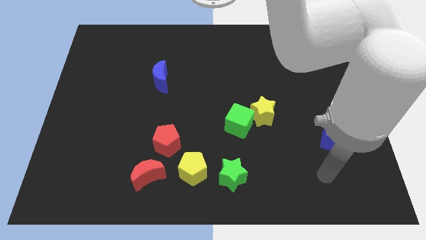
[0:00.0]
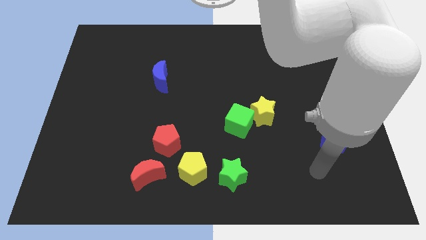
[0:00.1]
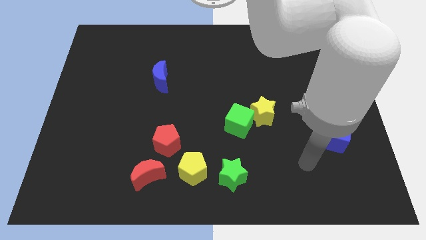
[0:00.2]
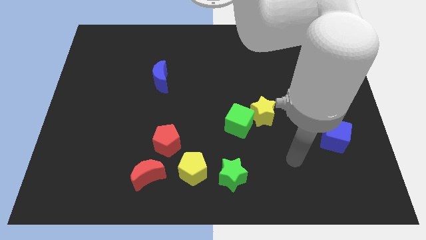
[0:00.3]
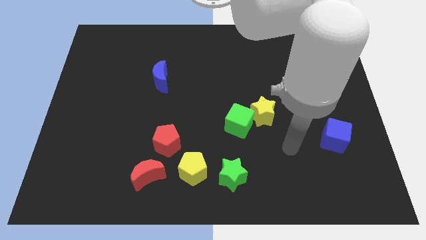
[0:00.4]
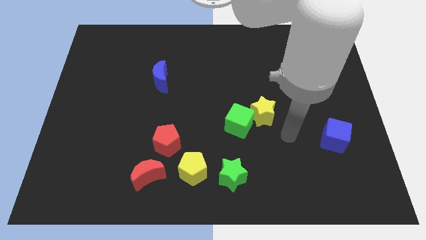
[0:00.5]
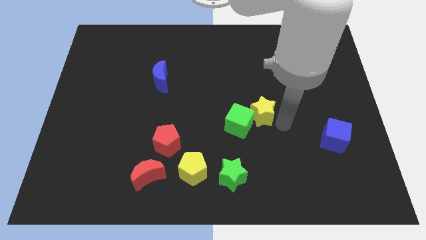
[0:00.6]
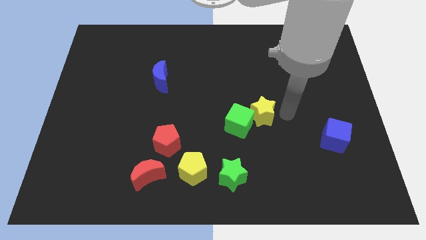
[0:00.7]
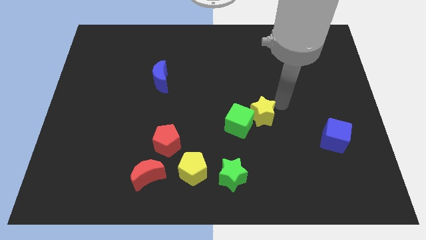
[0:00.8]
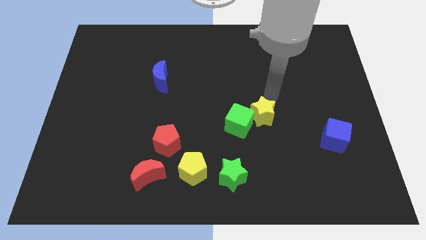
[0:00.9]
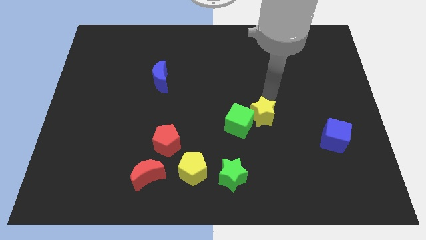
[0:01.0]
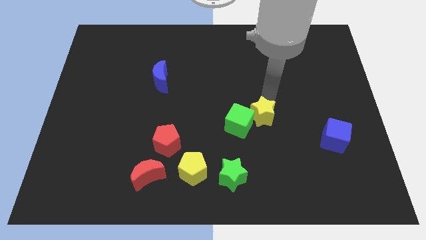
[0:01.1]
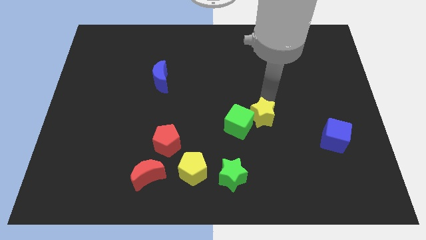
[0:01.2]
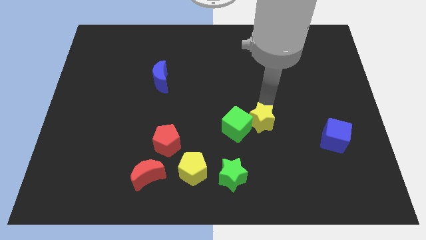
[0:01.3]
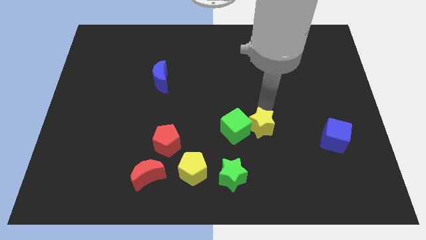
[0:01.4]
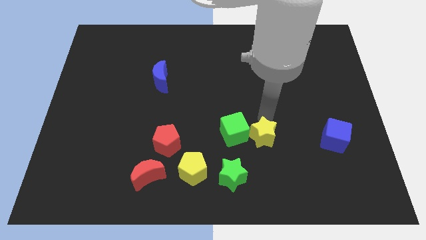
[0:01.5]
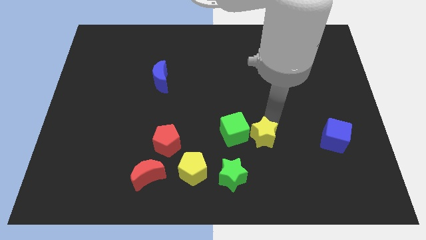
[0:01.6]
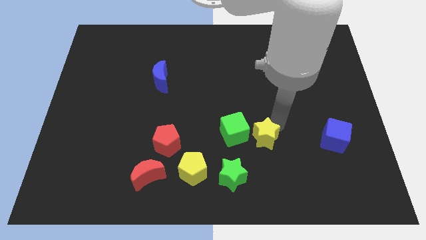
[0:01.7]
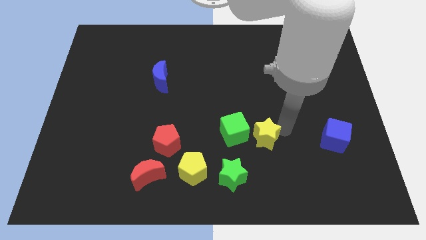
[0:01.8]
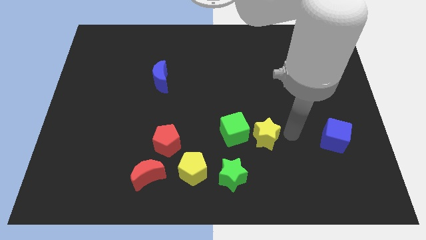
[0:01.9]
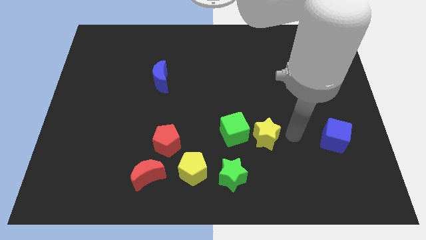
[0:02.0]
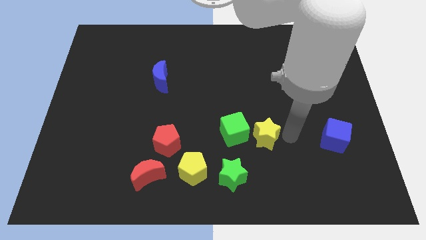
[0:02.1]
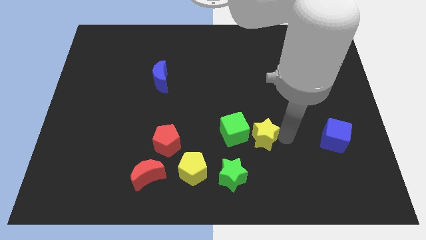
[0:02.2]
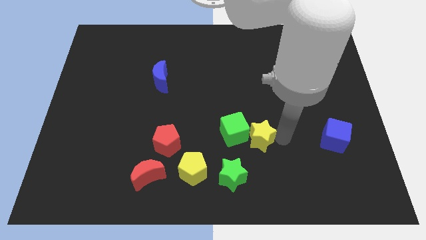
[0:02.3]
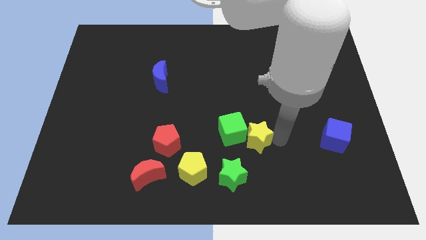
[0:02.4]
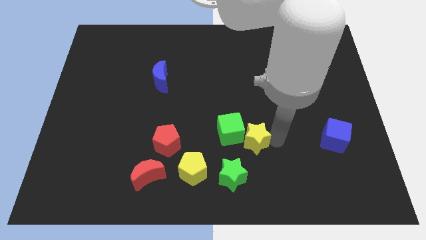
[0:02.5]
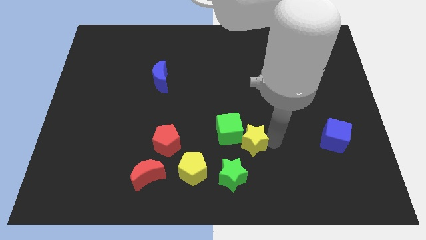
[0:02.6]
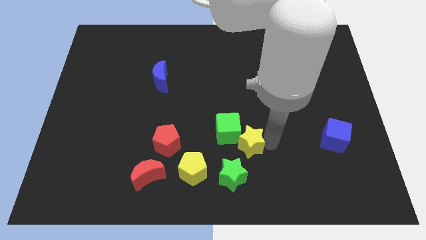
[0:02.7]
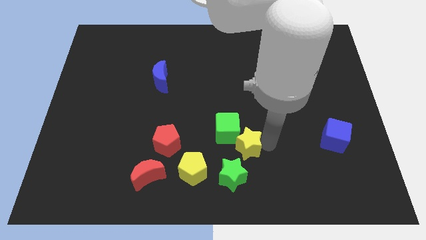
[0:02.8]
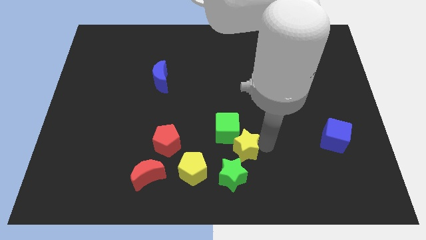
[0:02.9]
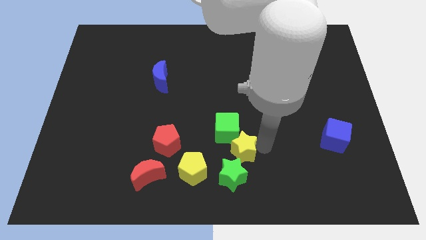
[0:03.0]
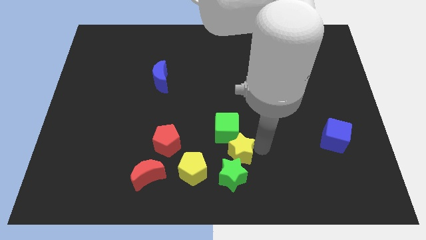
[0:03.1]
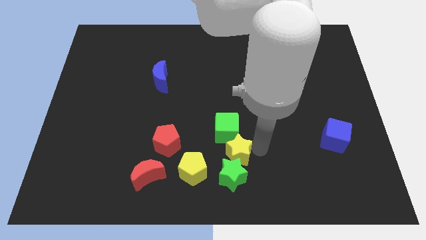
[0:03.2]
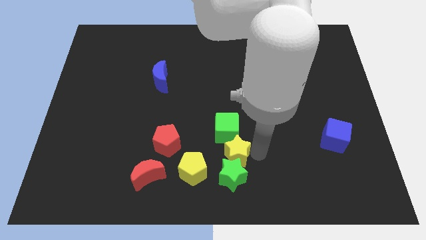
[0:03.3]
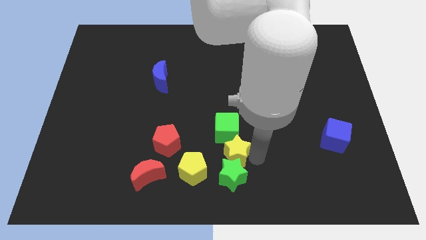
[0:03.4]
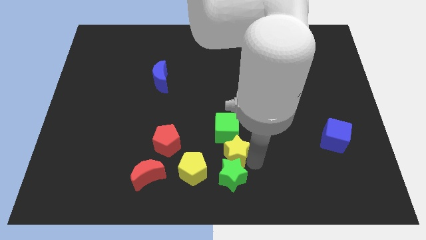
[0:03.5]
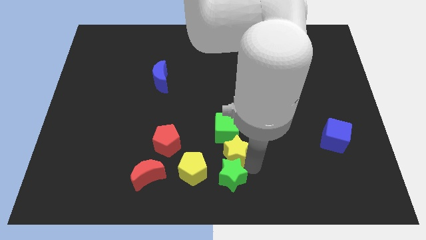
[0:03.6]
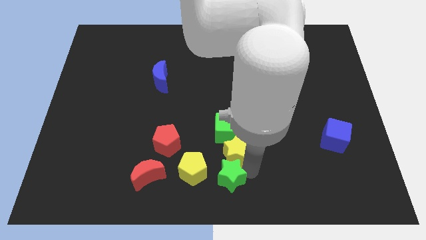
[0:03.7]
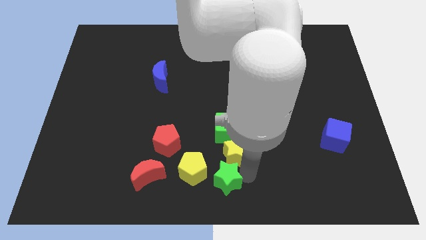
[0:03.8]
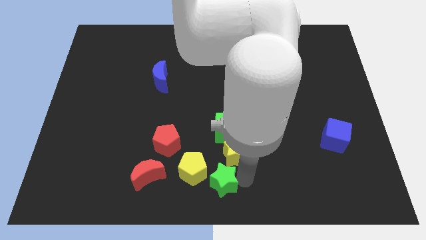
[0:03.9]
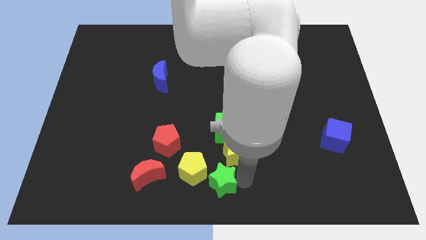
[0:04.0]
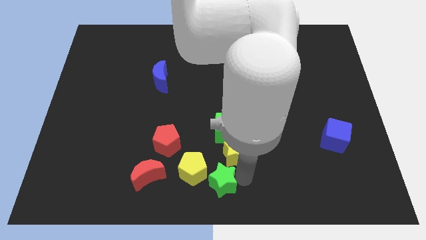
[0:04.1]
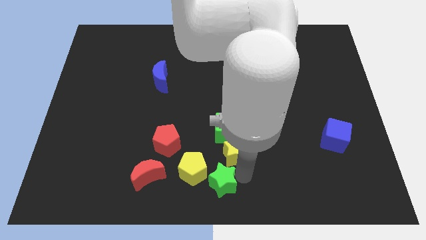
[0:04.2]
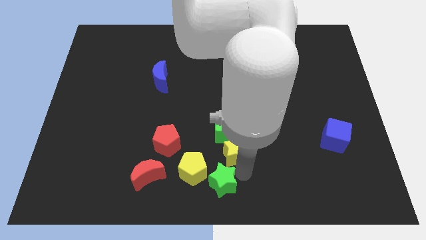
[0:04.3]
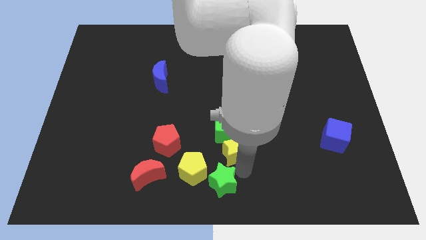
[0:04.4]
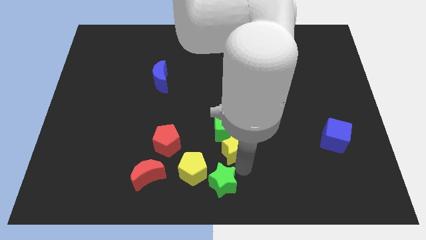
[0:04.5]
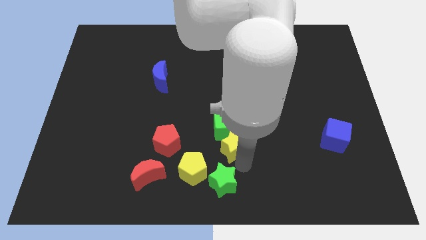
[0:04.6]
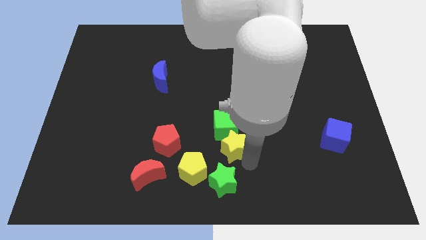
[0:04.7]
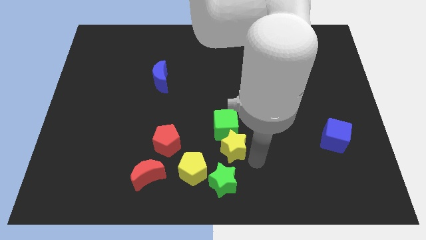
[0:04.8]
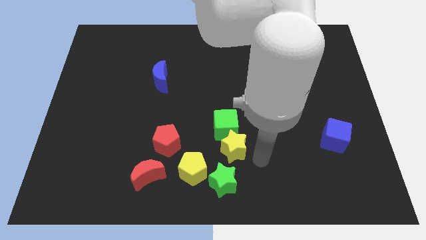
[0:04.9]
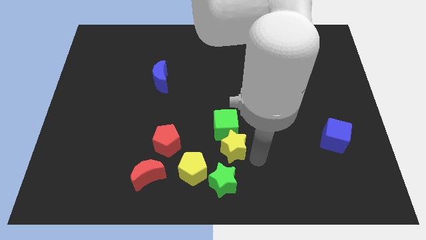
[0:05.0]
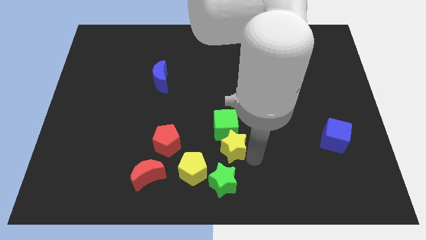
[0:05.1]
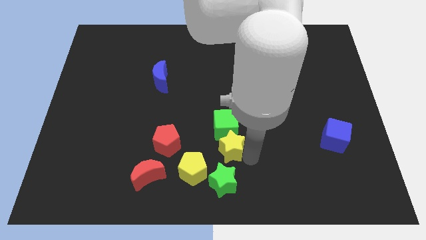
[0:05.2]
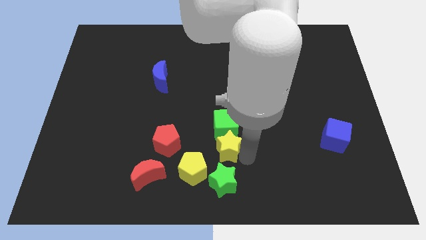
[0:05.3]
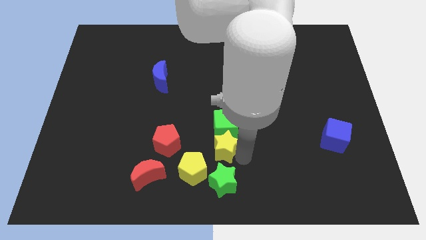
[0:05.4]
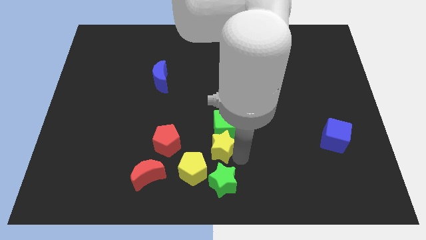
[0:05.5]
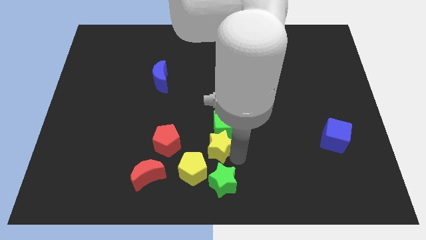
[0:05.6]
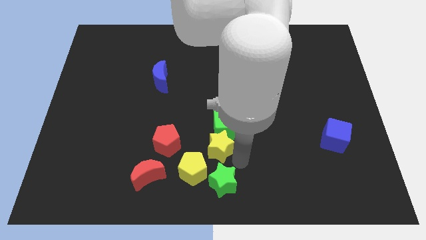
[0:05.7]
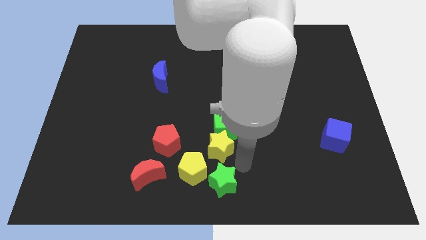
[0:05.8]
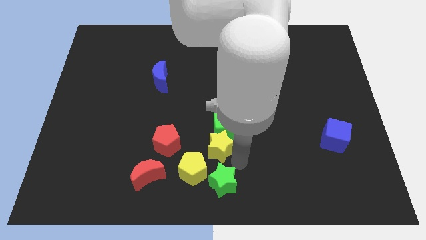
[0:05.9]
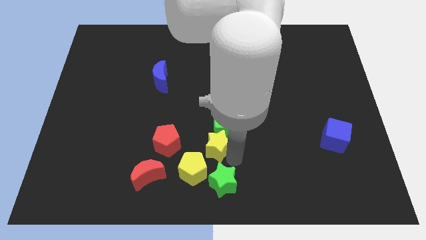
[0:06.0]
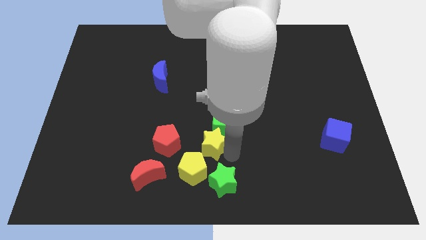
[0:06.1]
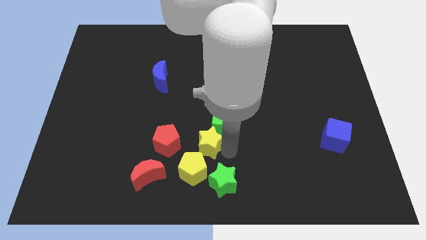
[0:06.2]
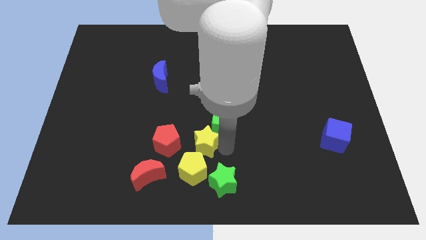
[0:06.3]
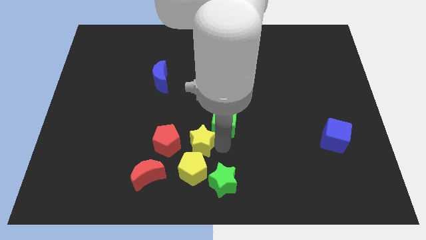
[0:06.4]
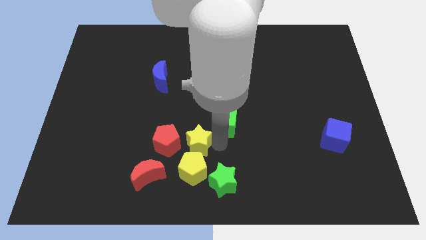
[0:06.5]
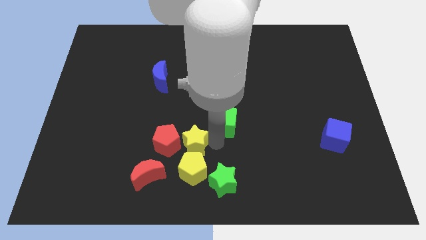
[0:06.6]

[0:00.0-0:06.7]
put the yellow star towards the red pentagon

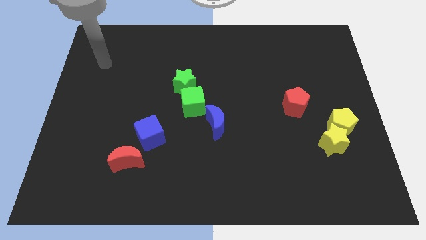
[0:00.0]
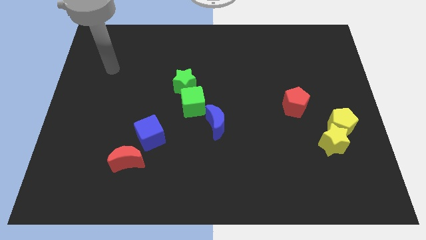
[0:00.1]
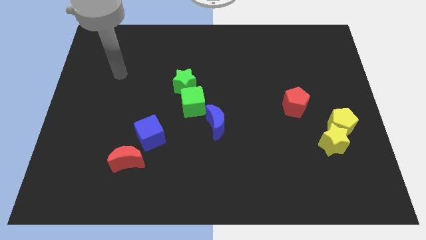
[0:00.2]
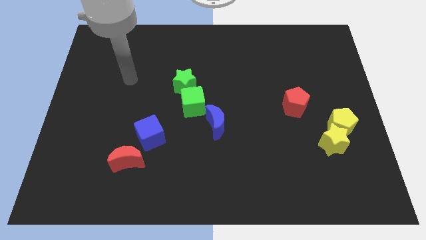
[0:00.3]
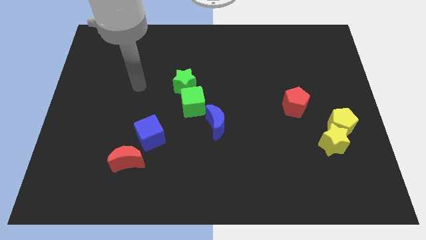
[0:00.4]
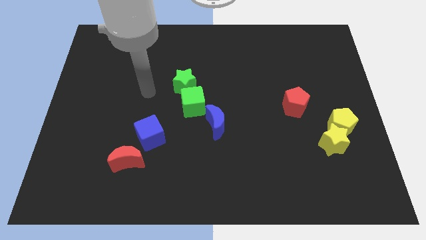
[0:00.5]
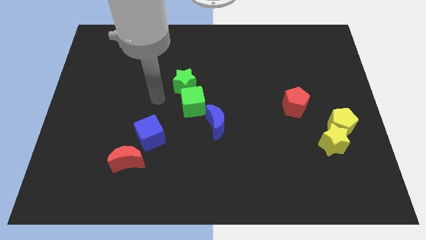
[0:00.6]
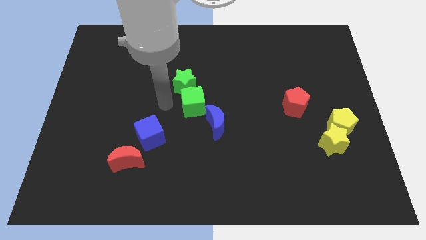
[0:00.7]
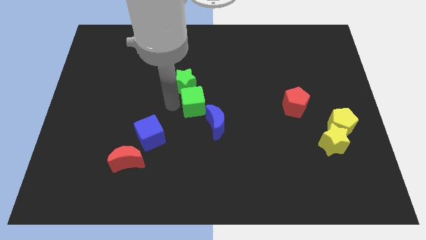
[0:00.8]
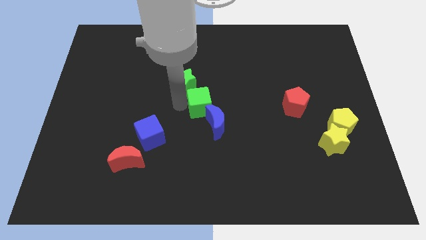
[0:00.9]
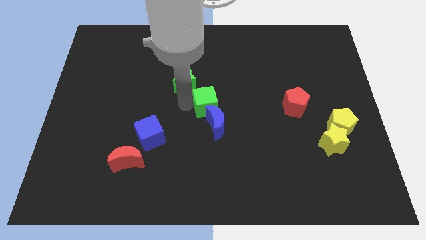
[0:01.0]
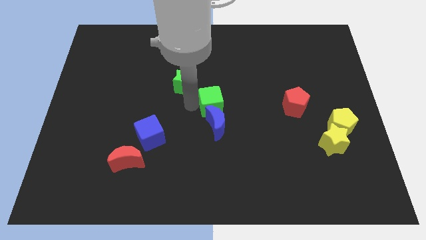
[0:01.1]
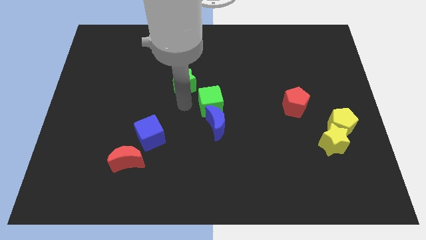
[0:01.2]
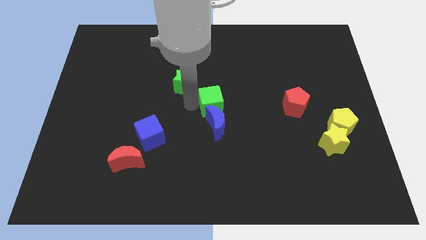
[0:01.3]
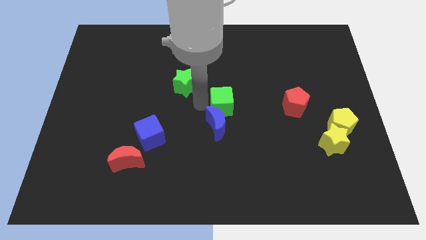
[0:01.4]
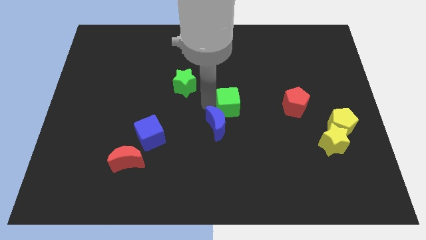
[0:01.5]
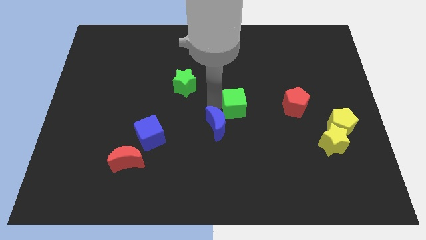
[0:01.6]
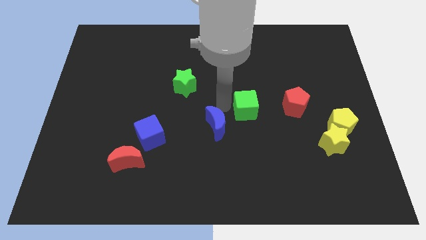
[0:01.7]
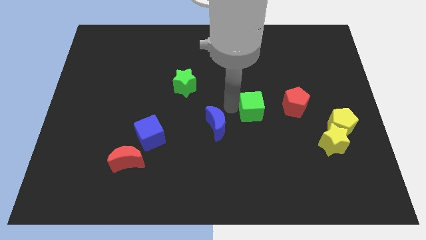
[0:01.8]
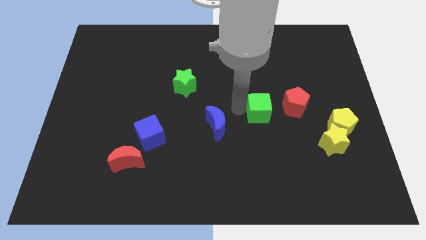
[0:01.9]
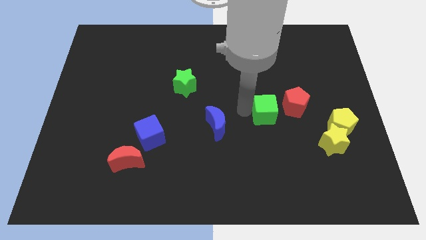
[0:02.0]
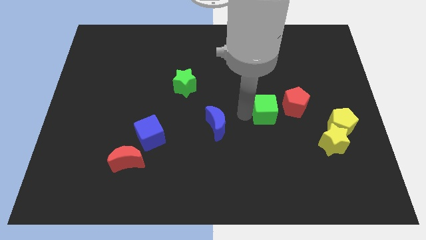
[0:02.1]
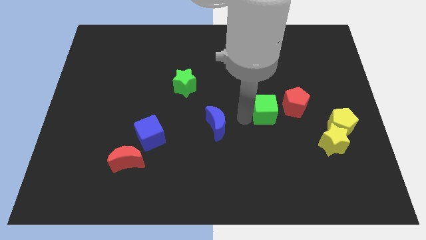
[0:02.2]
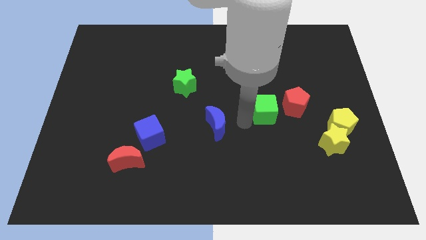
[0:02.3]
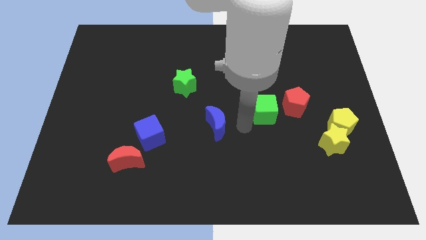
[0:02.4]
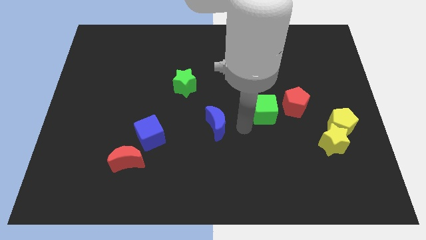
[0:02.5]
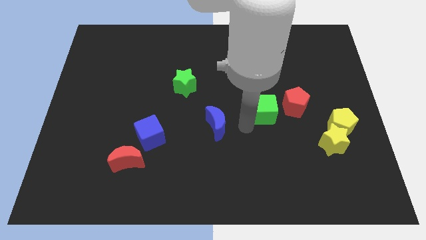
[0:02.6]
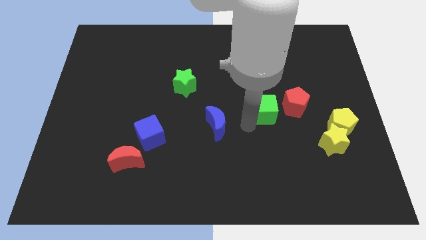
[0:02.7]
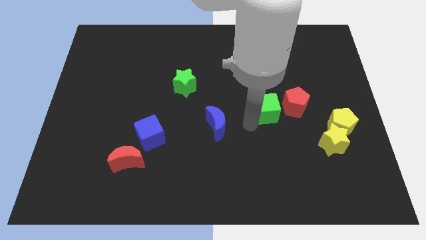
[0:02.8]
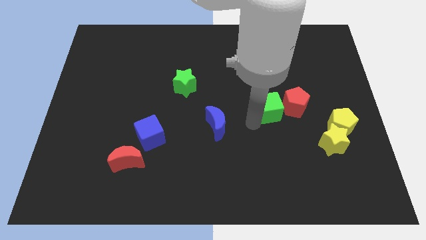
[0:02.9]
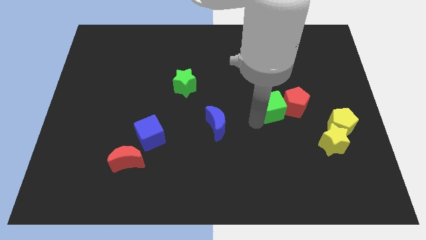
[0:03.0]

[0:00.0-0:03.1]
push the green cube towards the red pentagon
